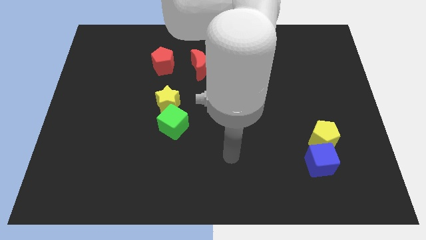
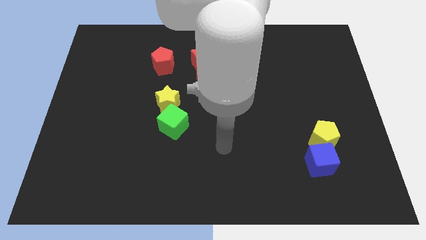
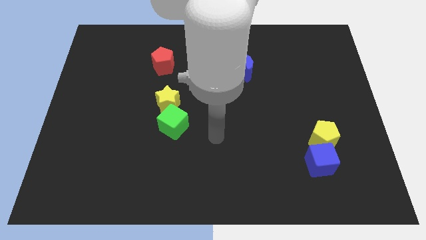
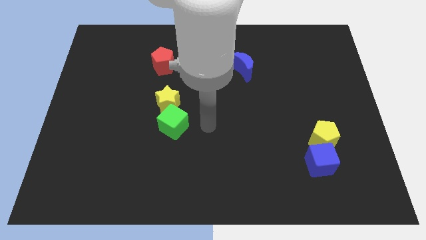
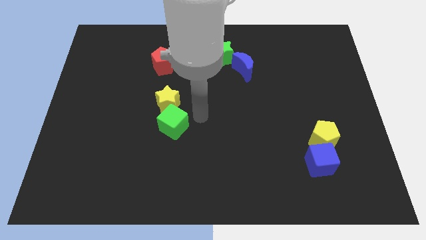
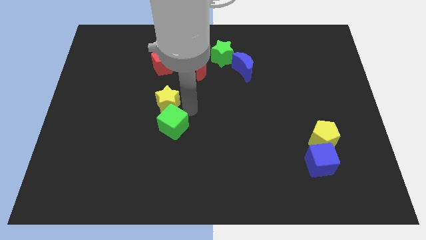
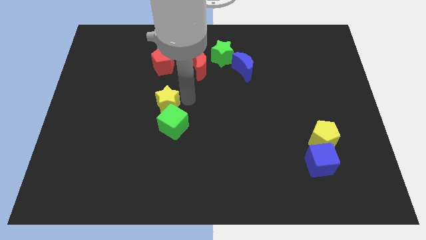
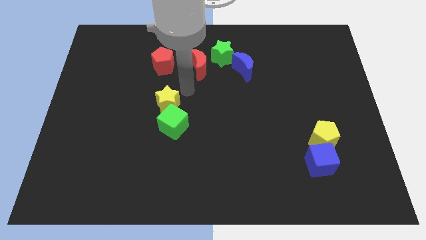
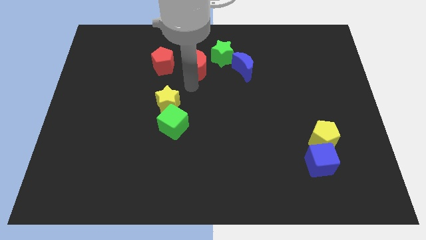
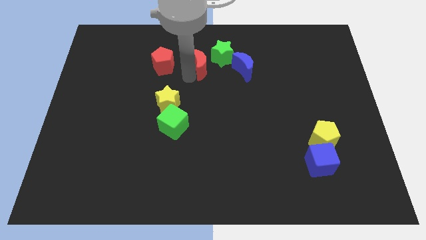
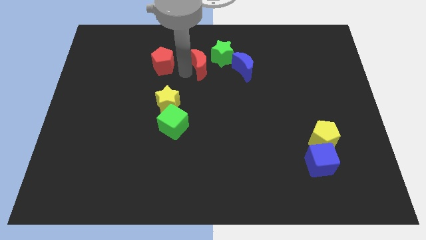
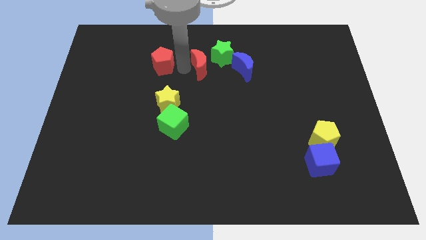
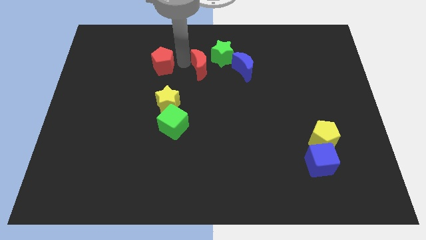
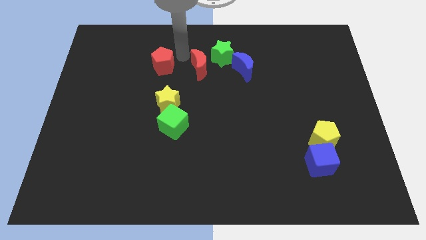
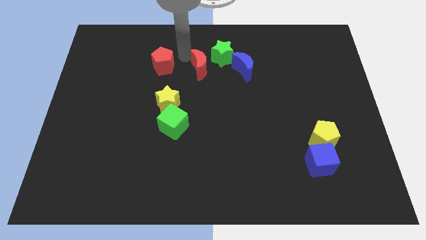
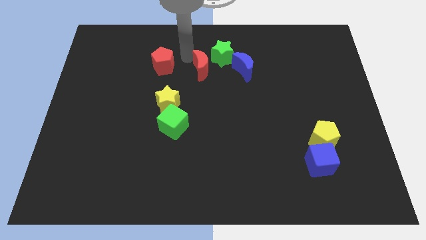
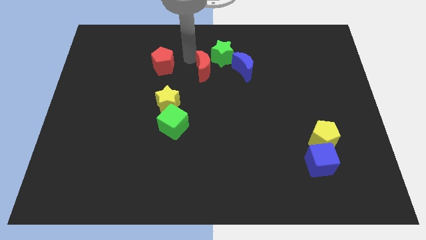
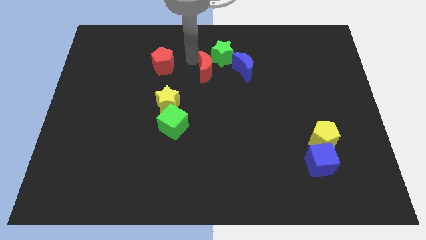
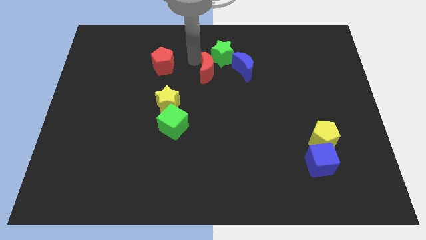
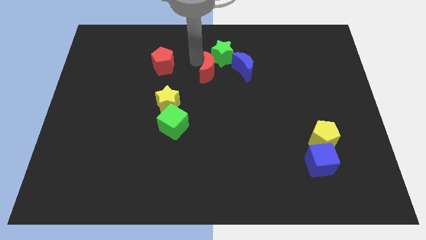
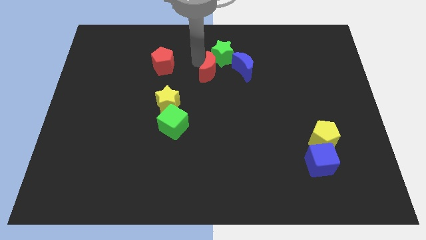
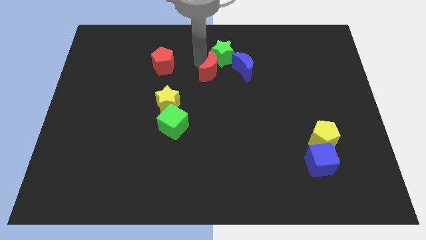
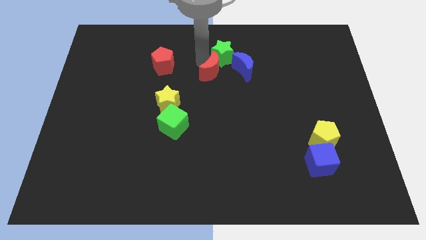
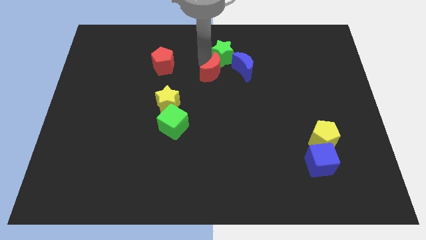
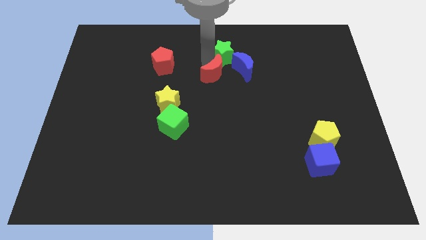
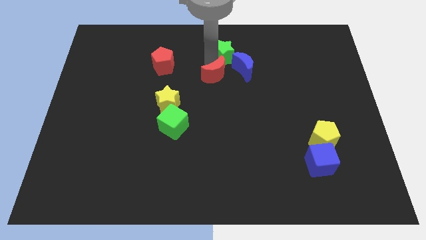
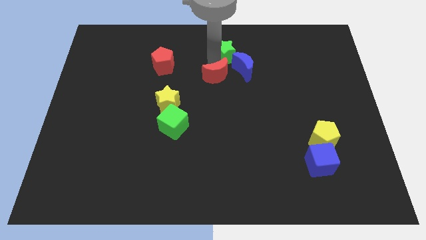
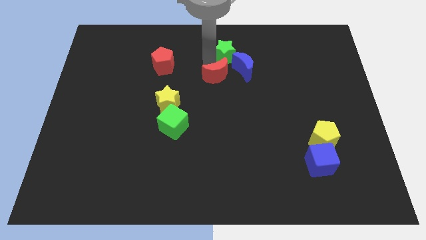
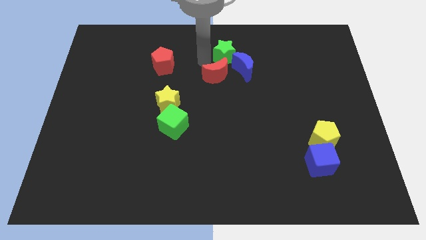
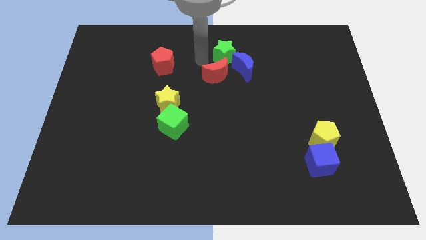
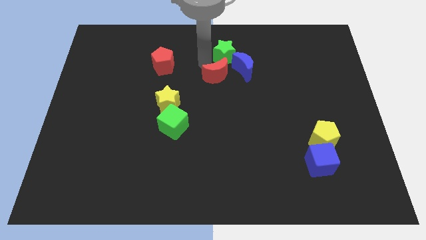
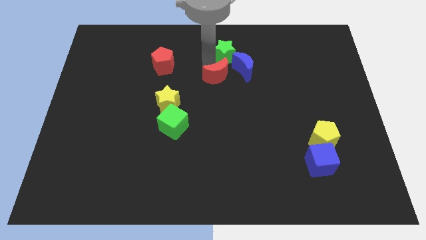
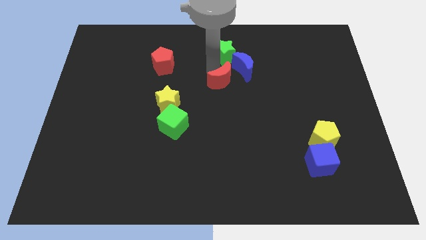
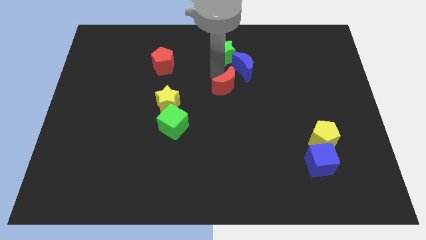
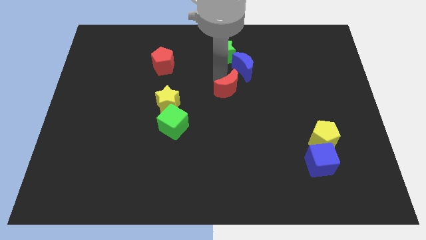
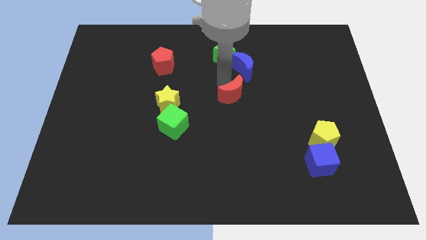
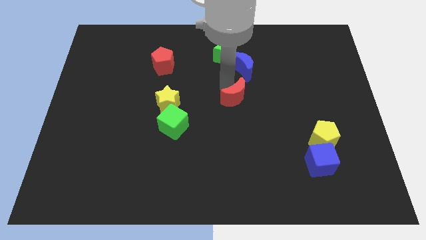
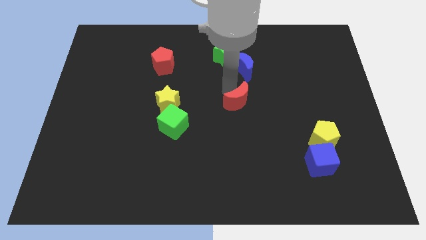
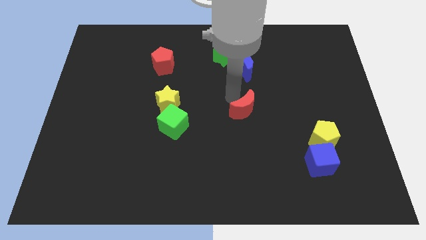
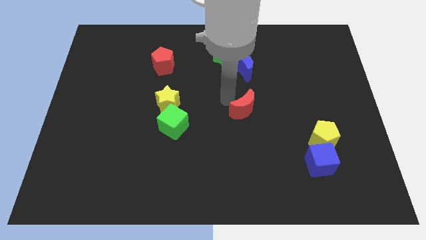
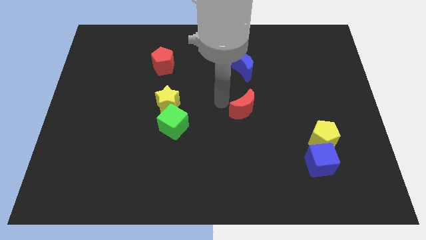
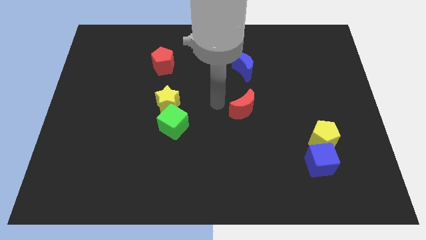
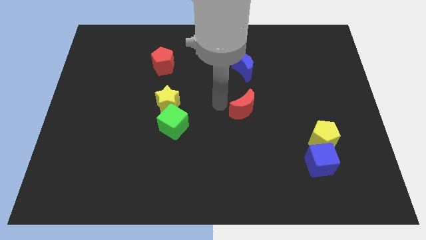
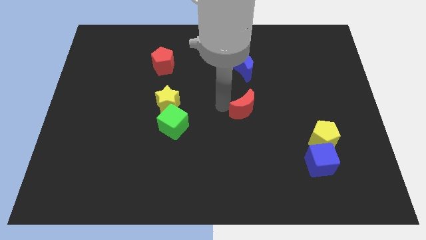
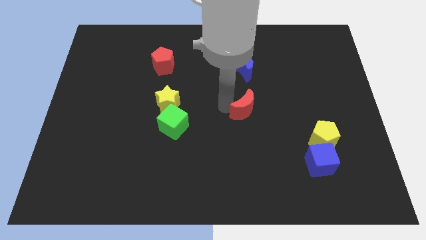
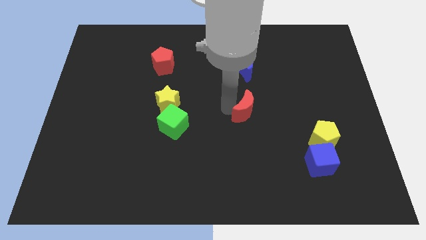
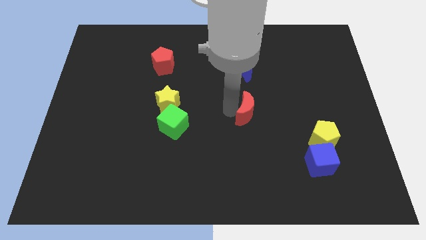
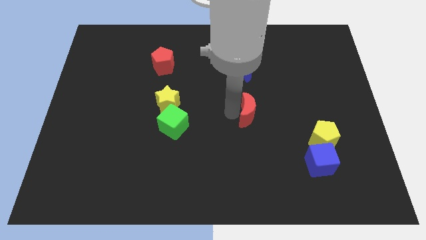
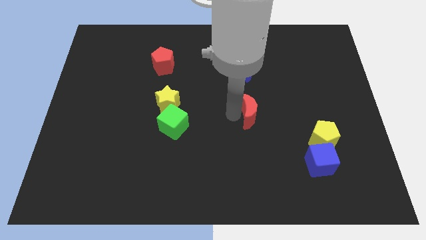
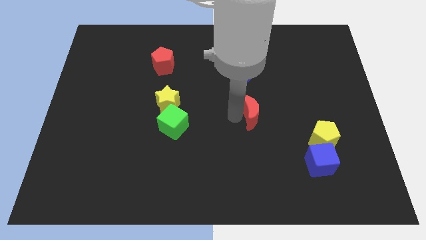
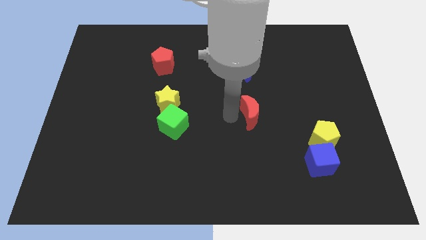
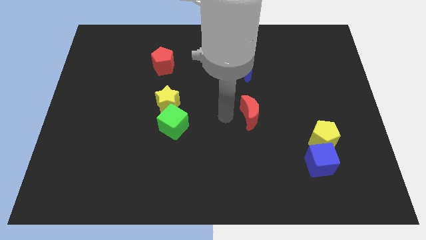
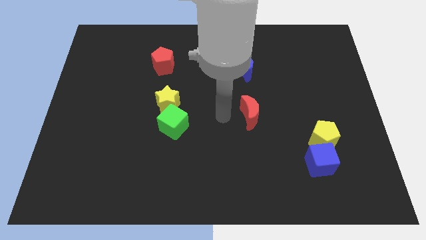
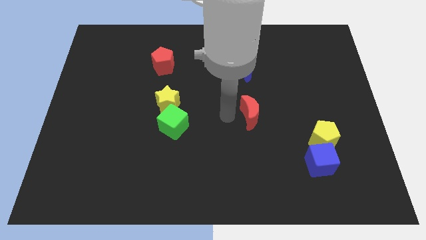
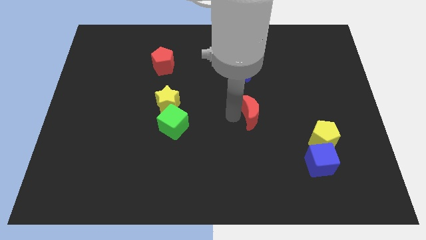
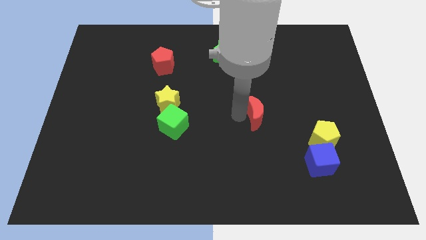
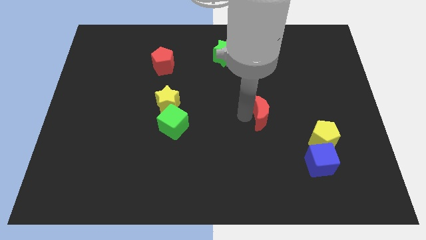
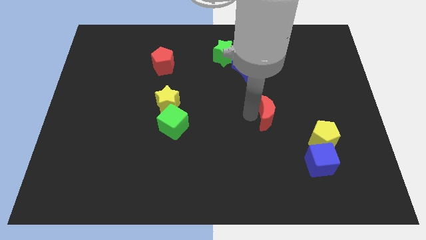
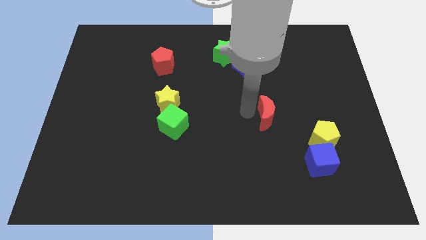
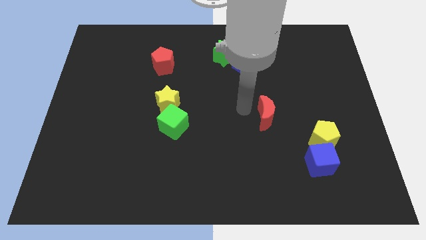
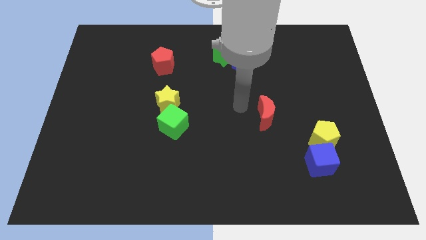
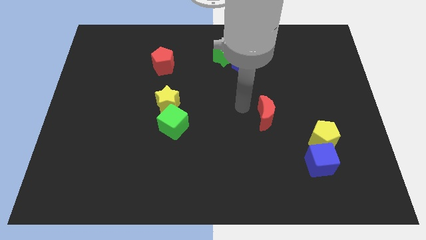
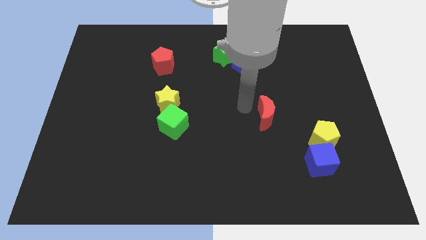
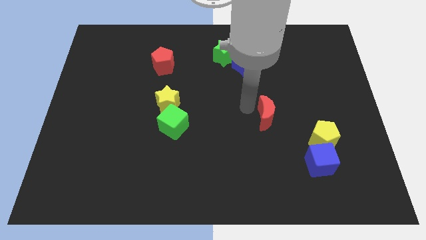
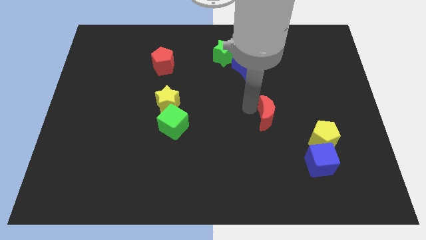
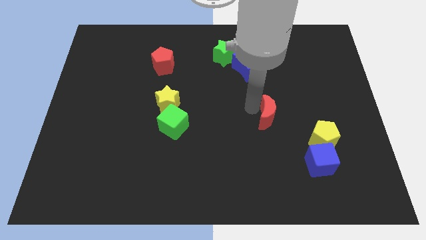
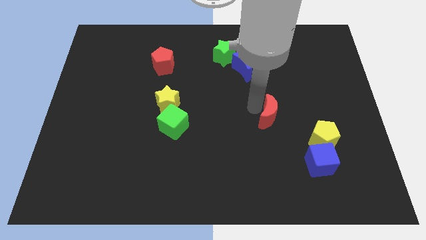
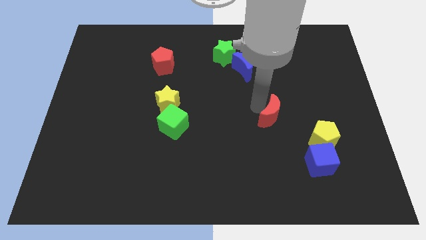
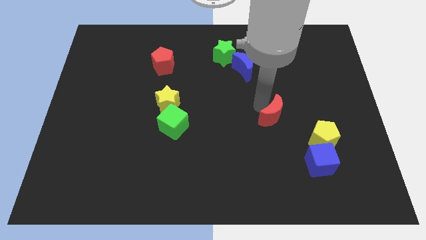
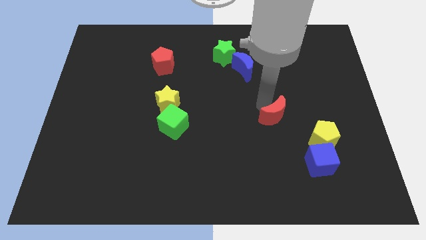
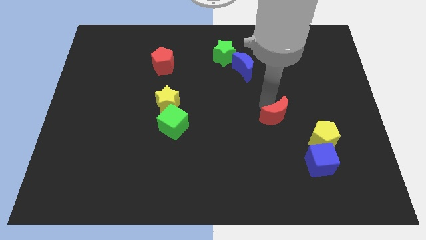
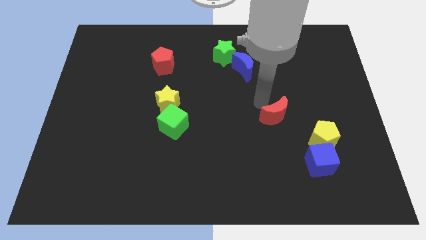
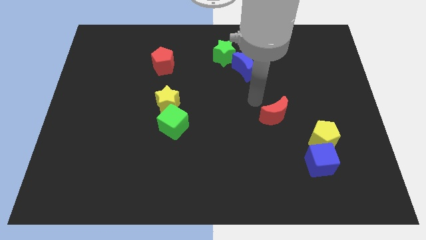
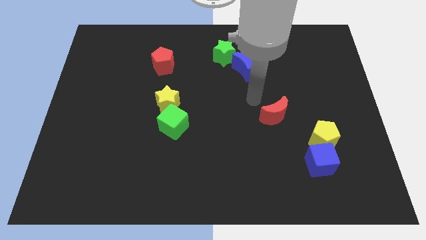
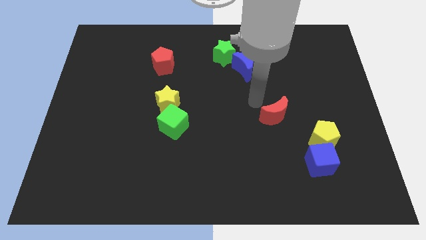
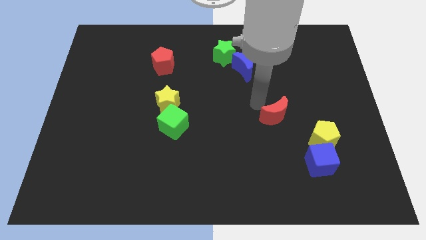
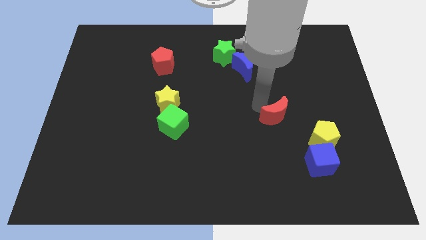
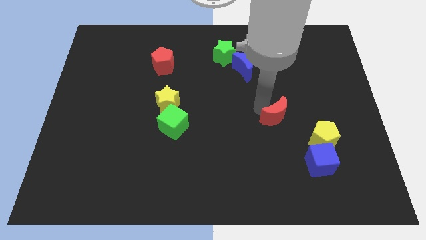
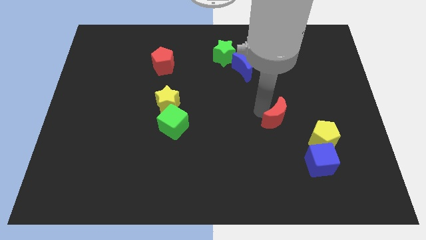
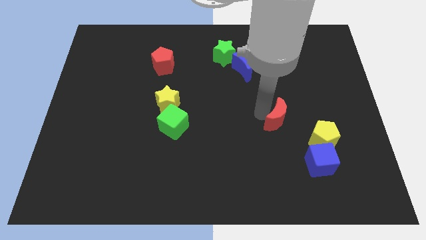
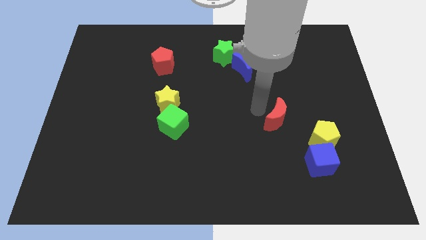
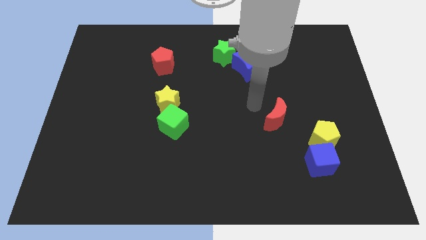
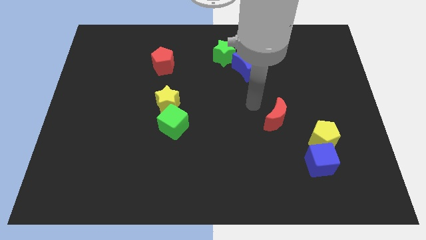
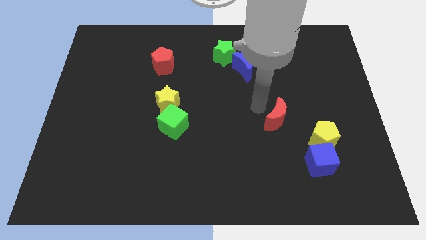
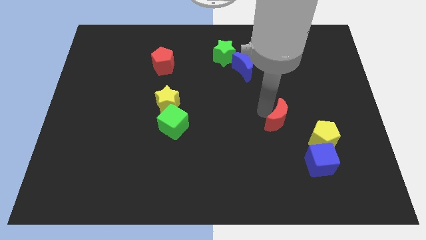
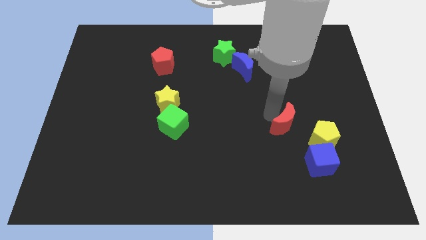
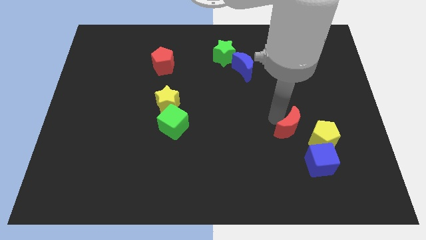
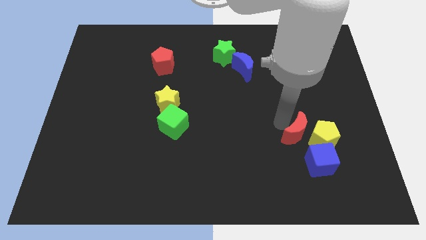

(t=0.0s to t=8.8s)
move the red moon next to the yellow pentagon
